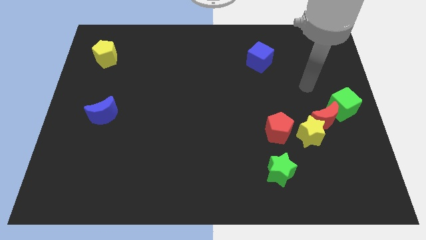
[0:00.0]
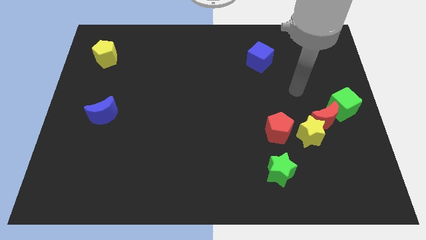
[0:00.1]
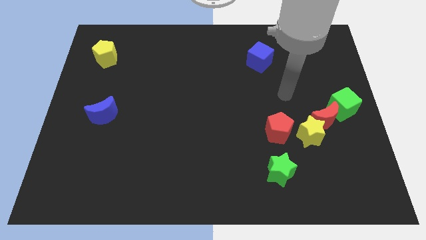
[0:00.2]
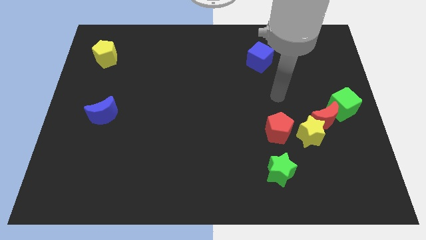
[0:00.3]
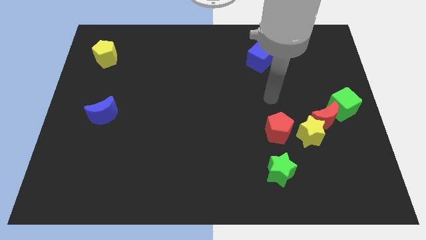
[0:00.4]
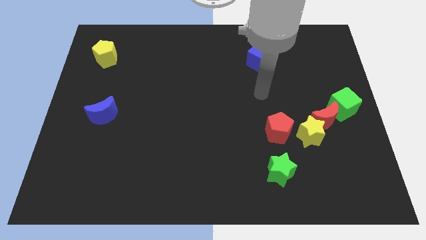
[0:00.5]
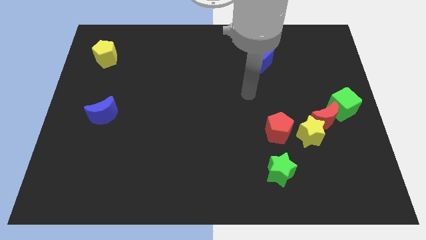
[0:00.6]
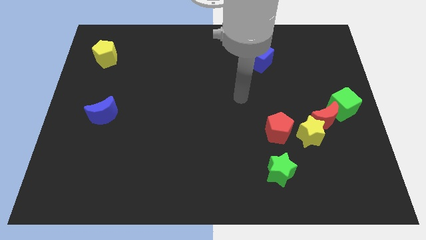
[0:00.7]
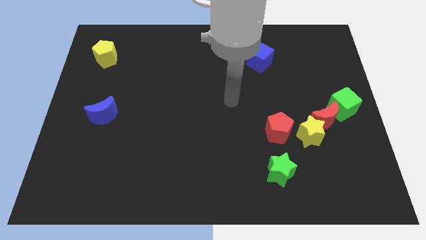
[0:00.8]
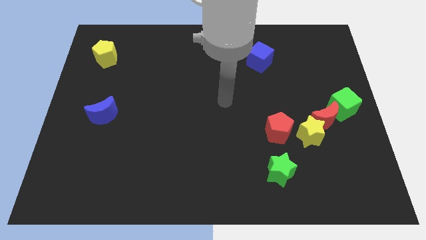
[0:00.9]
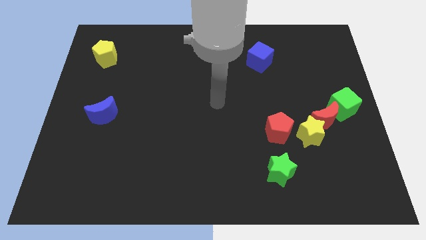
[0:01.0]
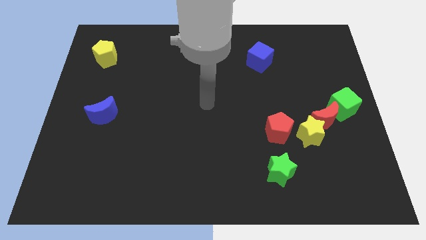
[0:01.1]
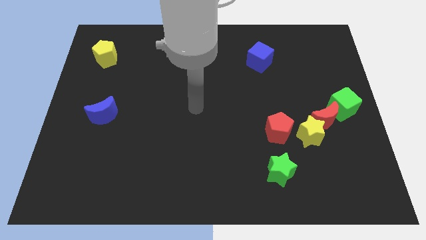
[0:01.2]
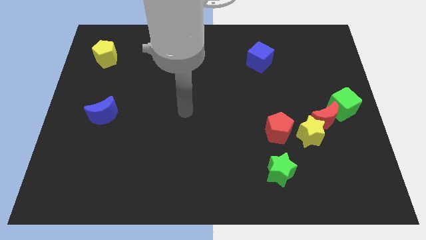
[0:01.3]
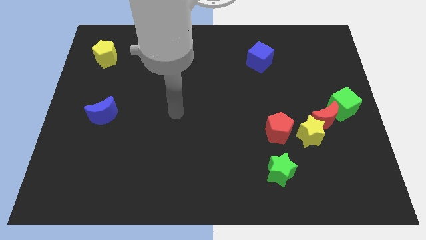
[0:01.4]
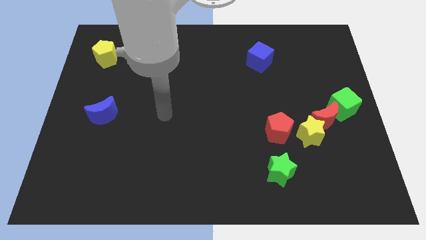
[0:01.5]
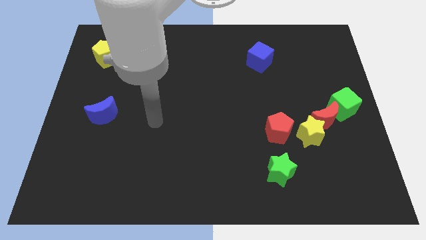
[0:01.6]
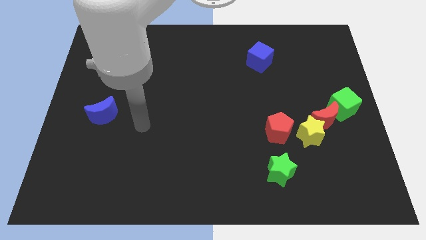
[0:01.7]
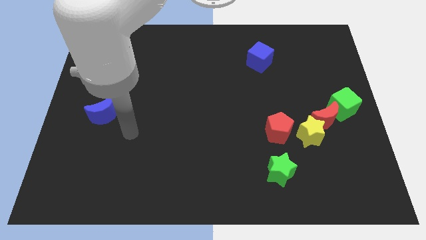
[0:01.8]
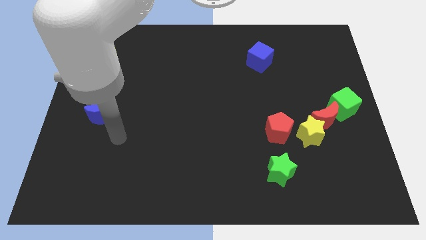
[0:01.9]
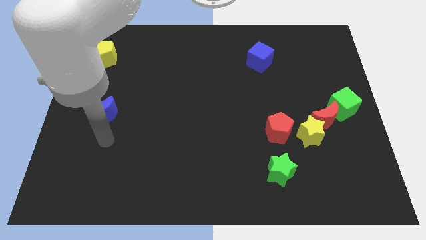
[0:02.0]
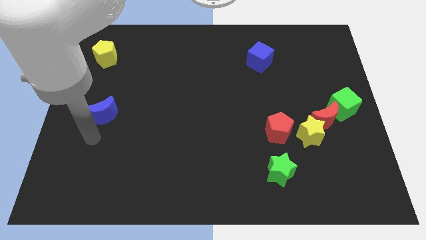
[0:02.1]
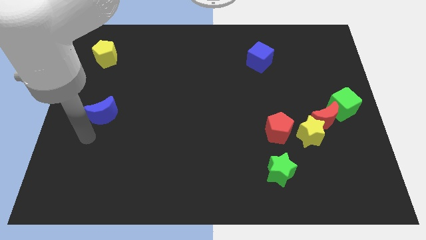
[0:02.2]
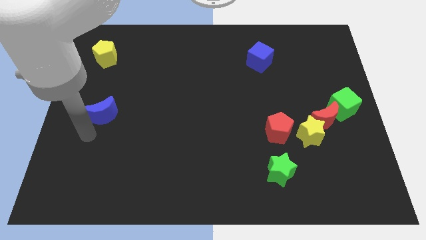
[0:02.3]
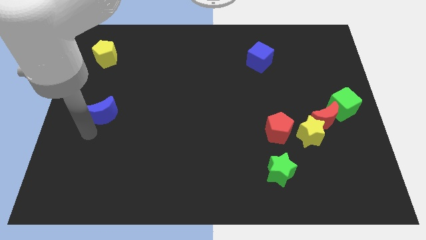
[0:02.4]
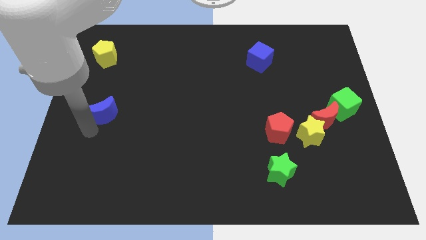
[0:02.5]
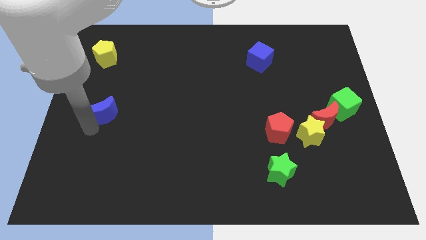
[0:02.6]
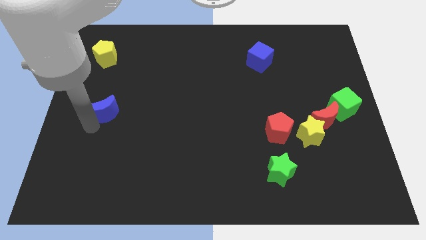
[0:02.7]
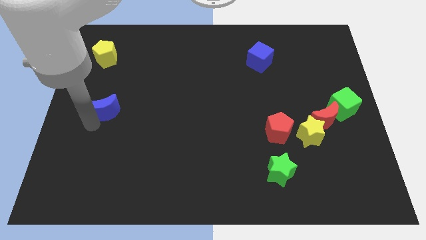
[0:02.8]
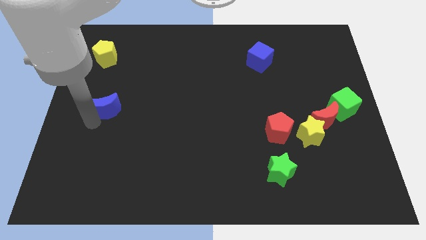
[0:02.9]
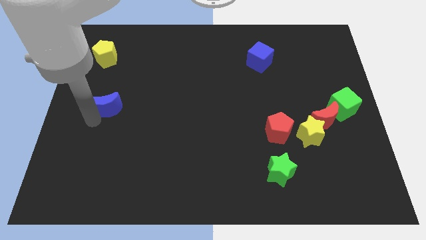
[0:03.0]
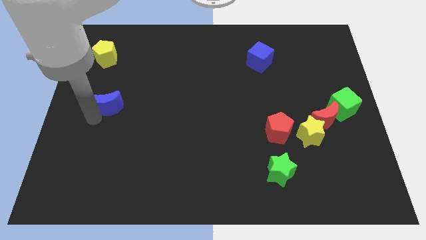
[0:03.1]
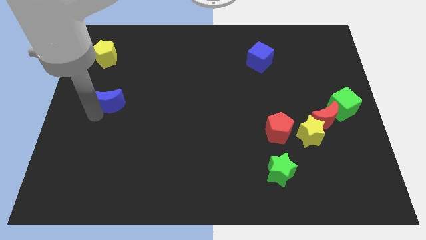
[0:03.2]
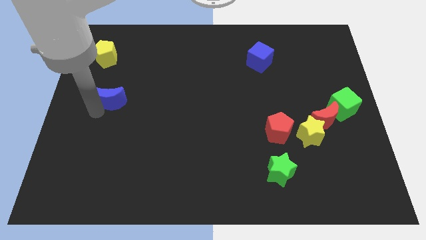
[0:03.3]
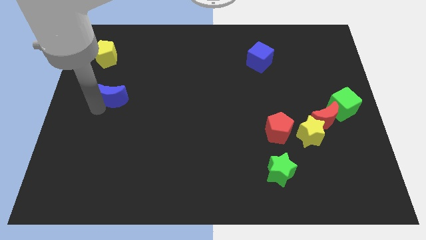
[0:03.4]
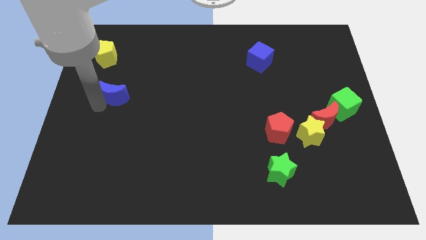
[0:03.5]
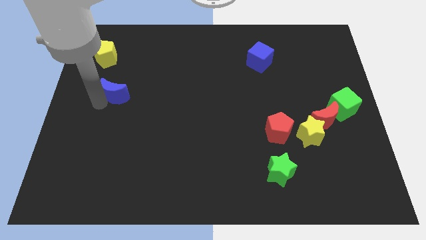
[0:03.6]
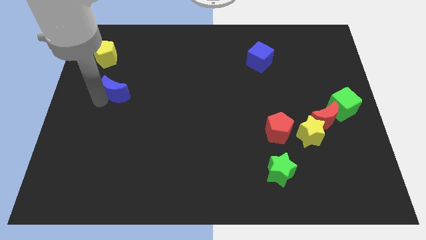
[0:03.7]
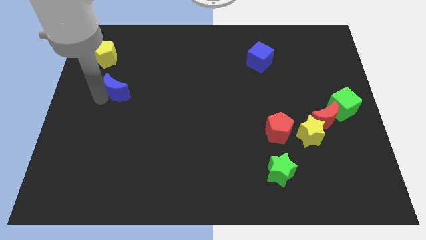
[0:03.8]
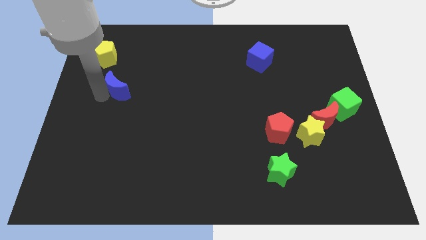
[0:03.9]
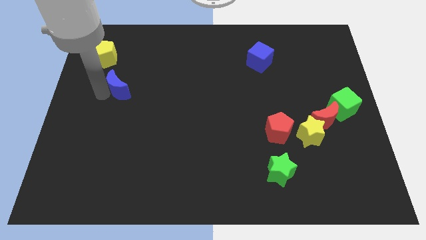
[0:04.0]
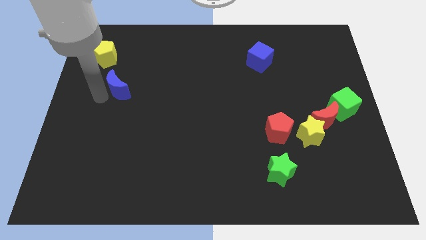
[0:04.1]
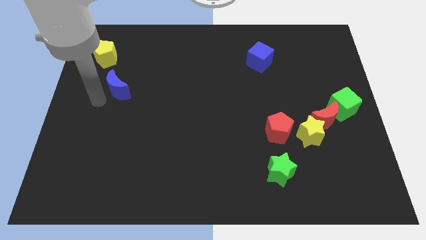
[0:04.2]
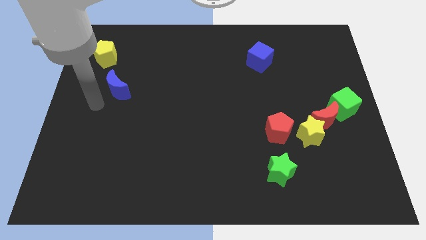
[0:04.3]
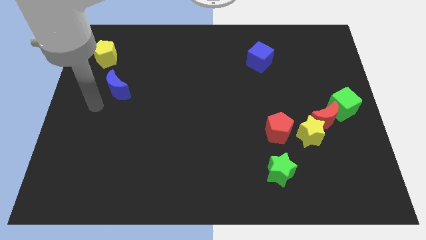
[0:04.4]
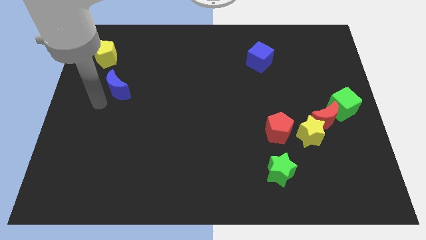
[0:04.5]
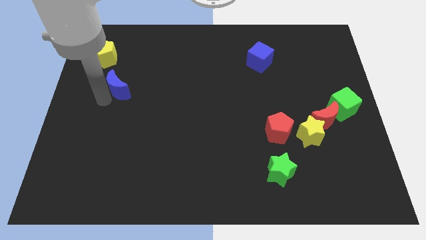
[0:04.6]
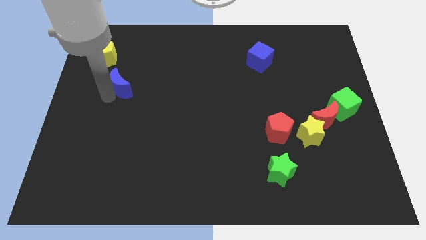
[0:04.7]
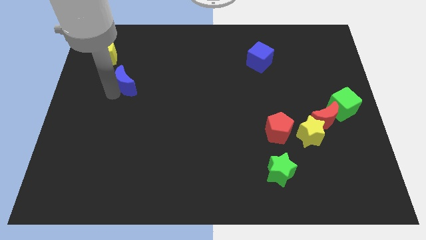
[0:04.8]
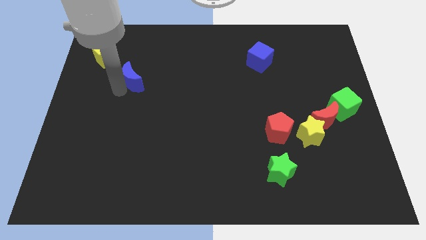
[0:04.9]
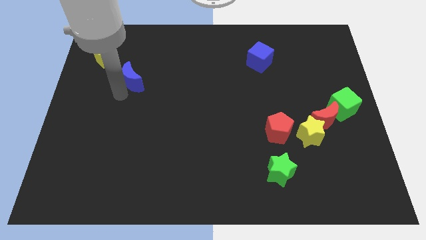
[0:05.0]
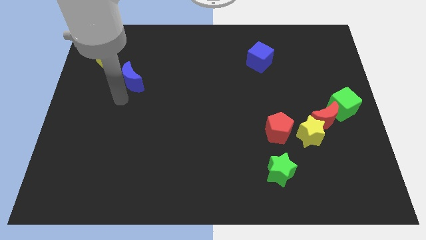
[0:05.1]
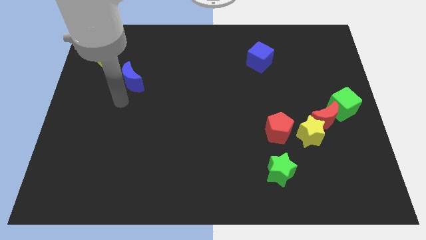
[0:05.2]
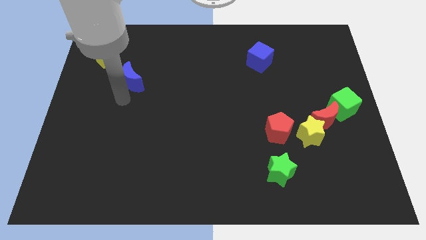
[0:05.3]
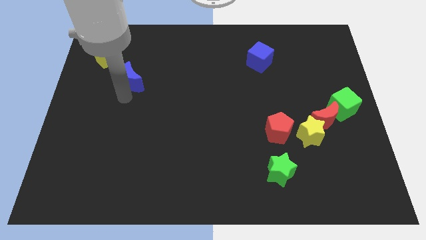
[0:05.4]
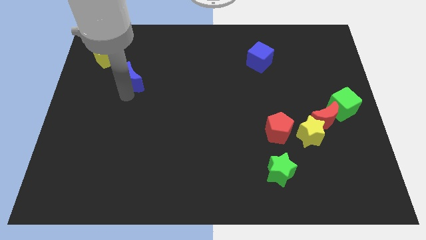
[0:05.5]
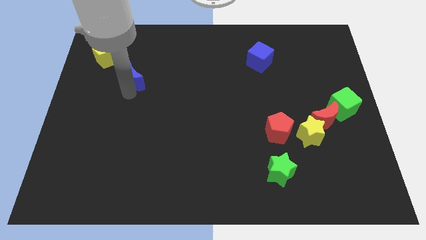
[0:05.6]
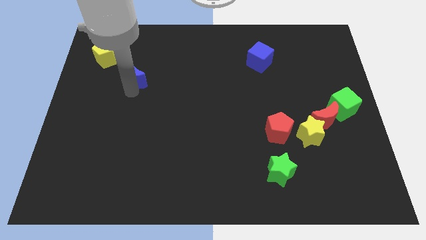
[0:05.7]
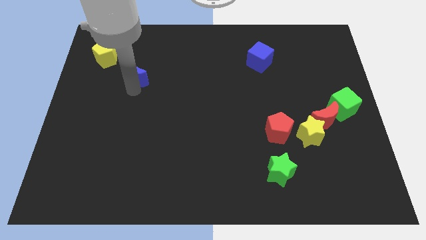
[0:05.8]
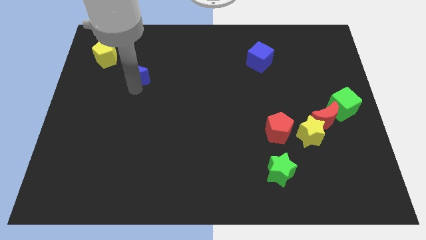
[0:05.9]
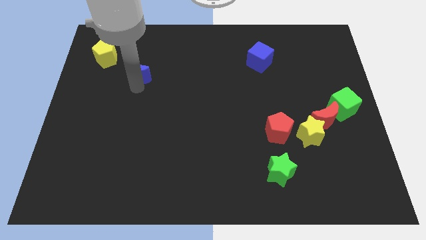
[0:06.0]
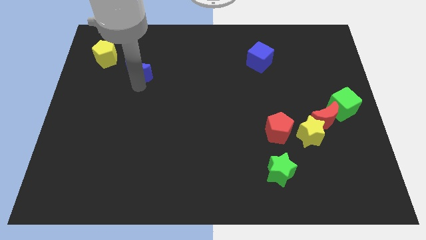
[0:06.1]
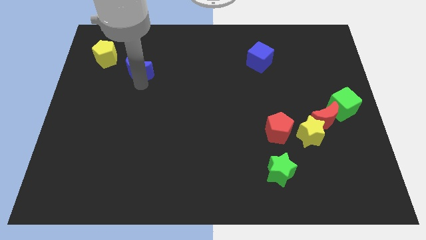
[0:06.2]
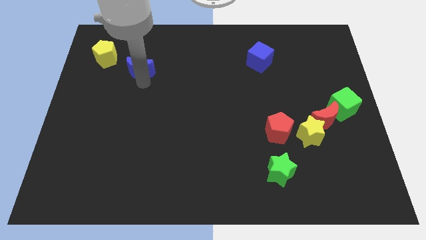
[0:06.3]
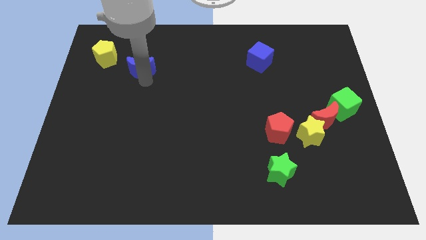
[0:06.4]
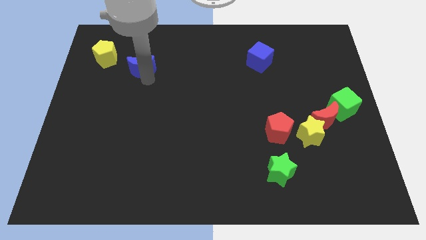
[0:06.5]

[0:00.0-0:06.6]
move the blue moon to the right side of the yellow pentagon

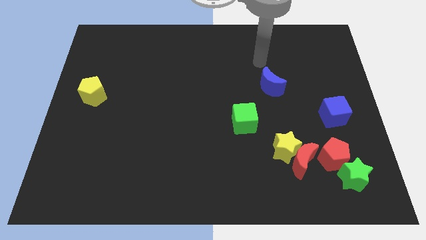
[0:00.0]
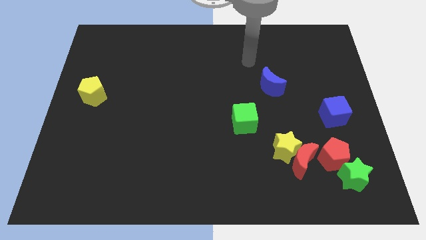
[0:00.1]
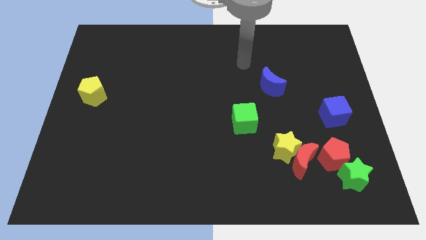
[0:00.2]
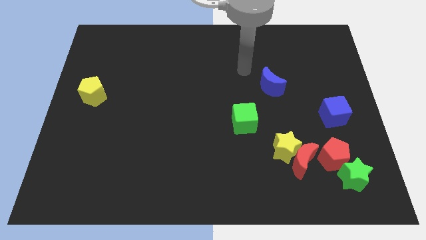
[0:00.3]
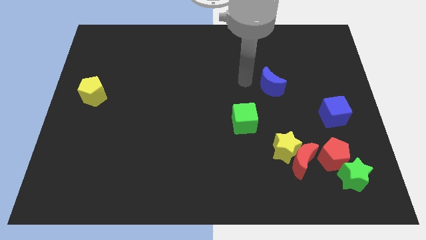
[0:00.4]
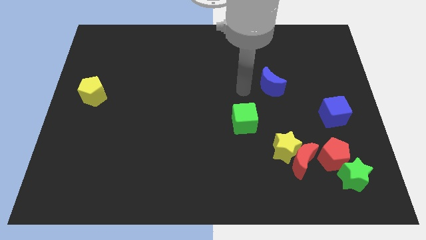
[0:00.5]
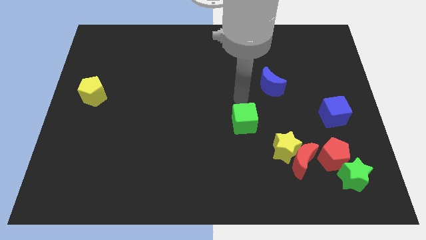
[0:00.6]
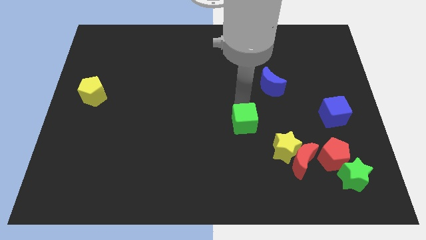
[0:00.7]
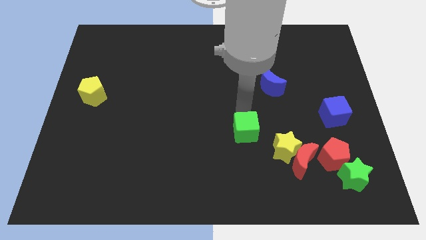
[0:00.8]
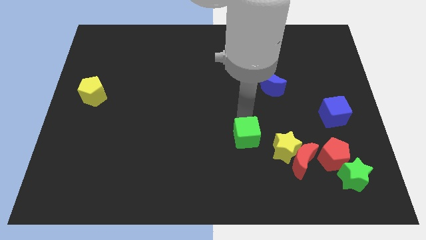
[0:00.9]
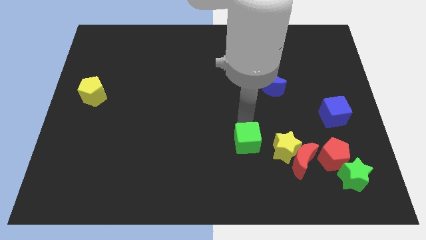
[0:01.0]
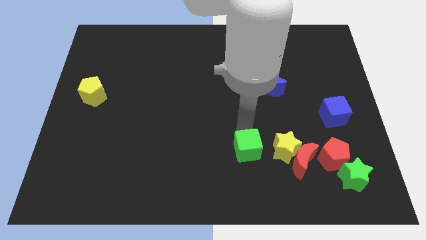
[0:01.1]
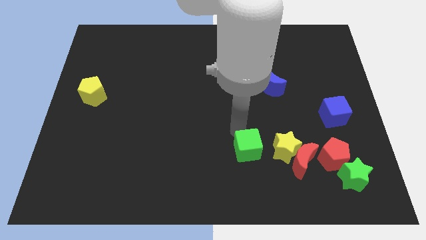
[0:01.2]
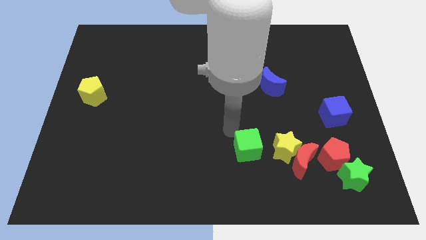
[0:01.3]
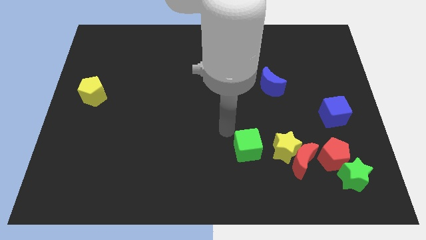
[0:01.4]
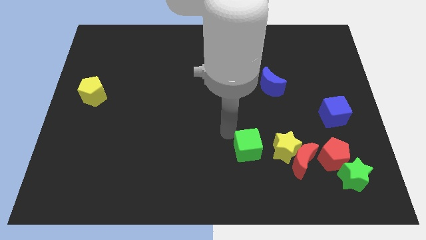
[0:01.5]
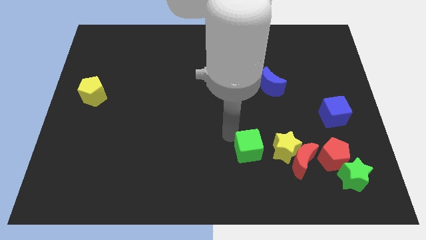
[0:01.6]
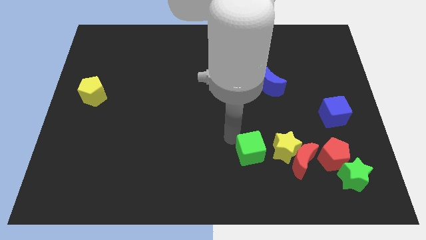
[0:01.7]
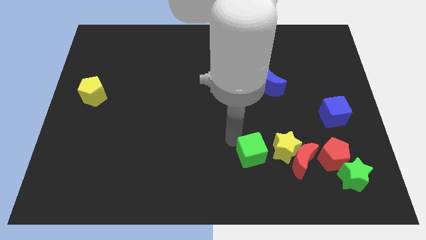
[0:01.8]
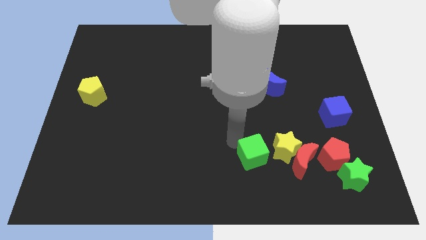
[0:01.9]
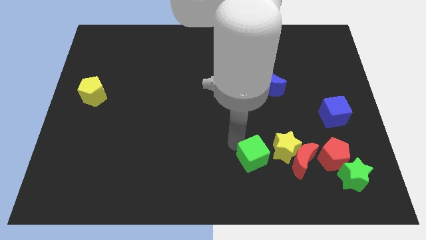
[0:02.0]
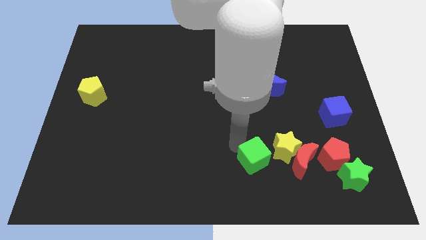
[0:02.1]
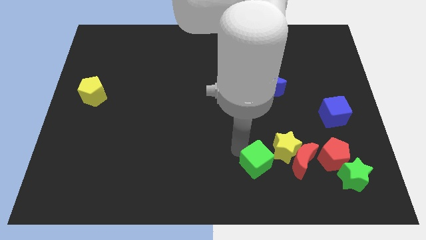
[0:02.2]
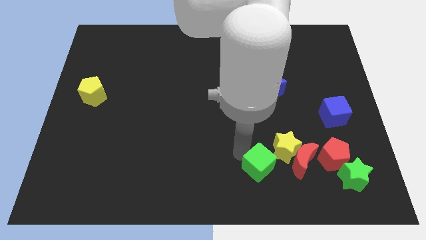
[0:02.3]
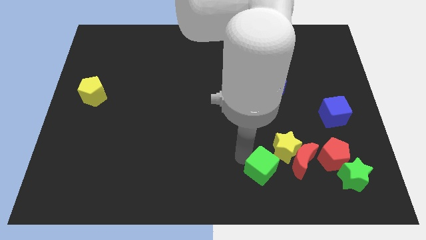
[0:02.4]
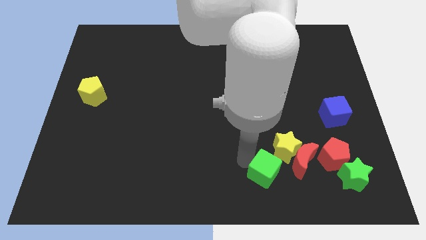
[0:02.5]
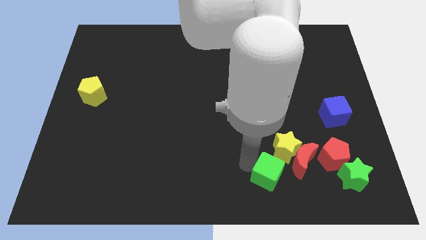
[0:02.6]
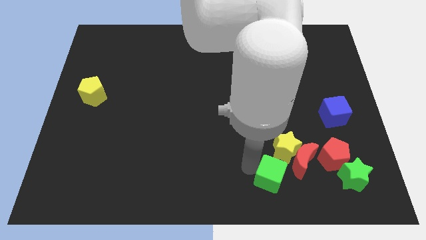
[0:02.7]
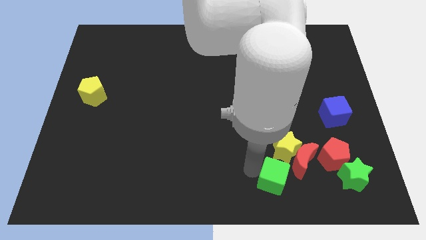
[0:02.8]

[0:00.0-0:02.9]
push the green cube just left of the green star
